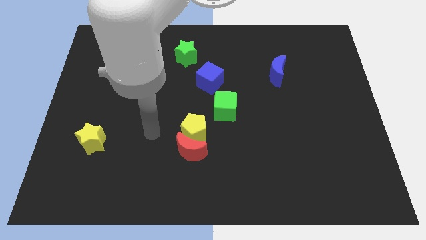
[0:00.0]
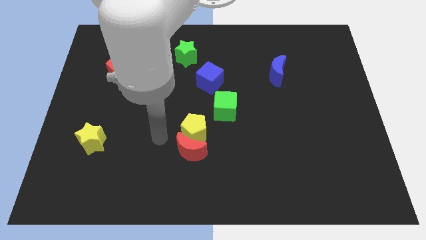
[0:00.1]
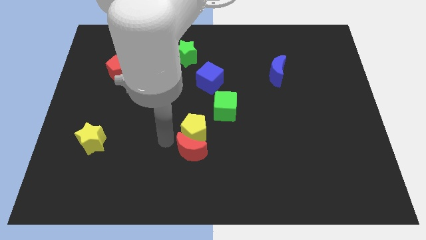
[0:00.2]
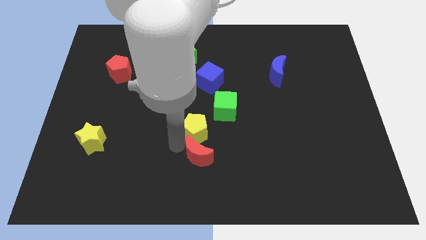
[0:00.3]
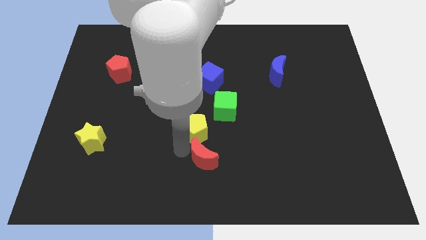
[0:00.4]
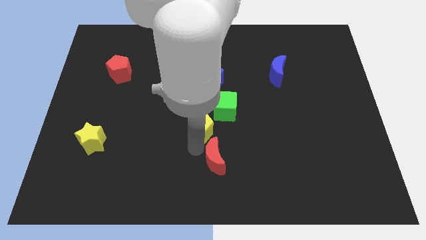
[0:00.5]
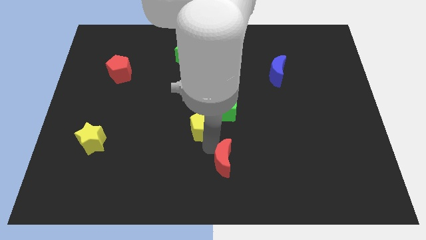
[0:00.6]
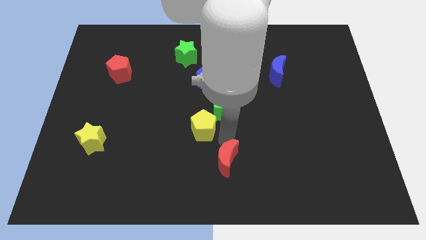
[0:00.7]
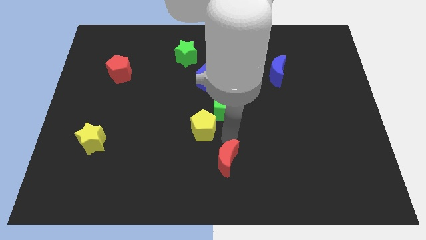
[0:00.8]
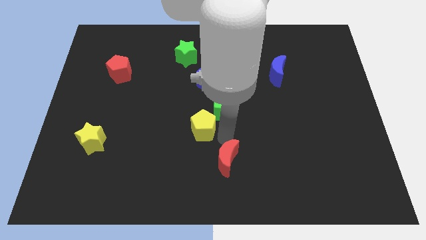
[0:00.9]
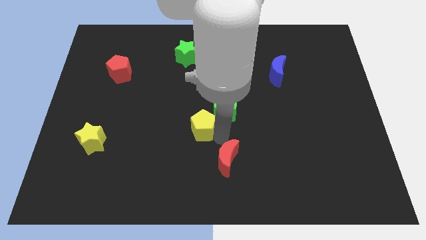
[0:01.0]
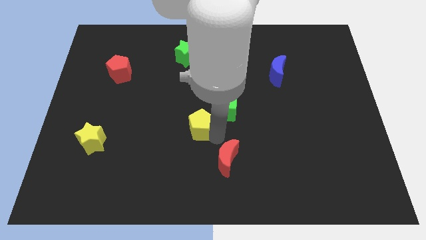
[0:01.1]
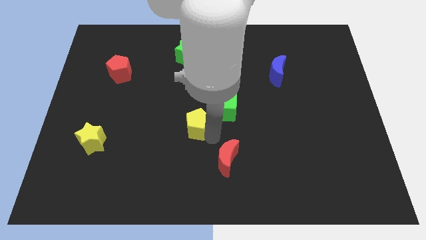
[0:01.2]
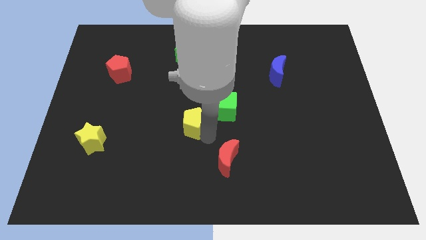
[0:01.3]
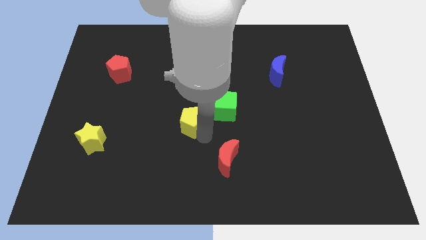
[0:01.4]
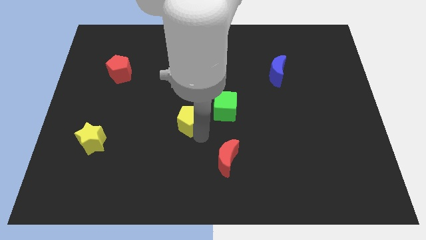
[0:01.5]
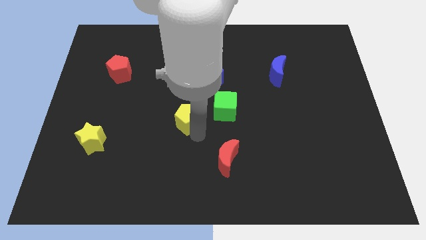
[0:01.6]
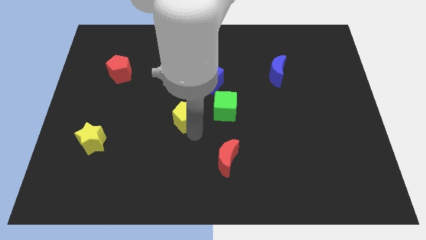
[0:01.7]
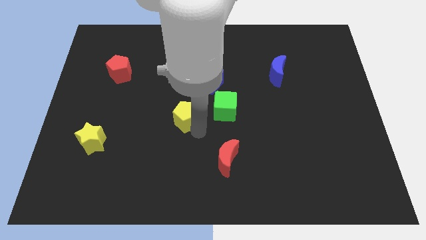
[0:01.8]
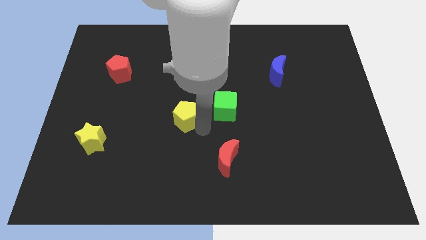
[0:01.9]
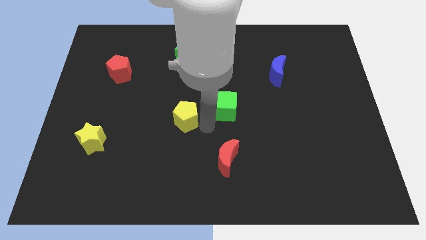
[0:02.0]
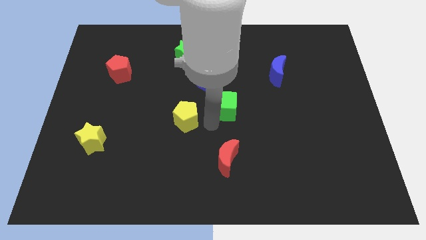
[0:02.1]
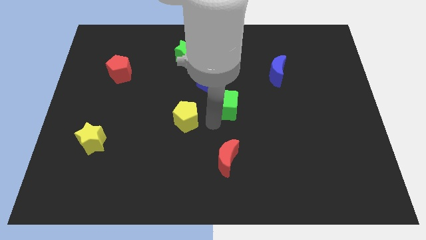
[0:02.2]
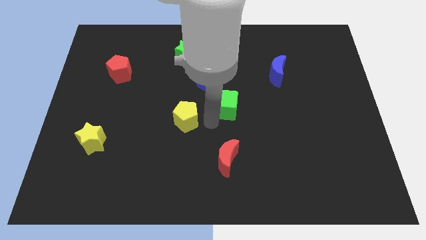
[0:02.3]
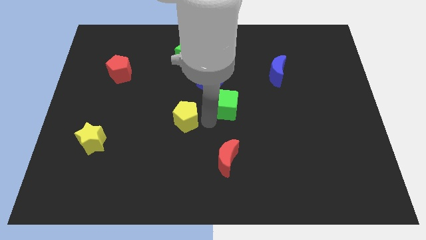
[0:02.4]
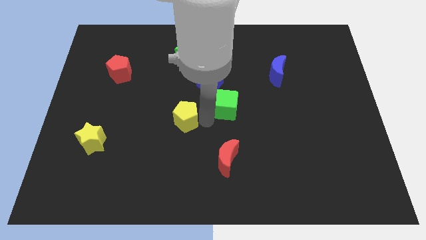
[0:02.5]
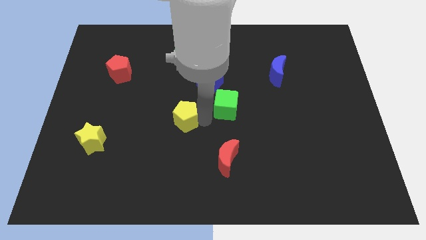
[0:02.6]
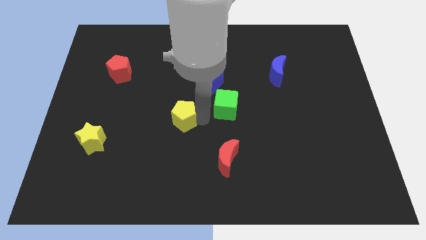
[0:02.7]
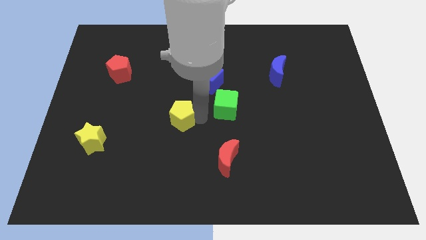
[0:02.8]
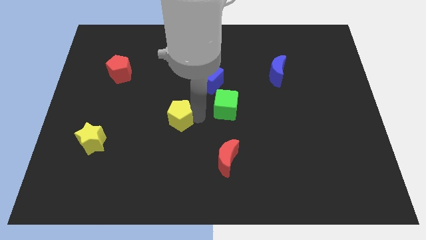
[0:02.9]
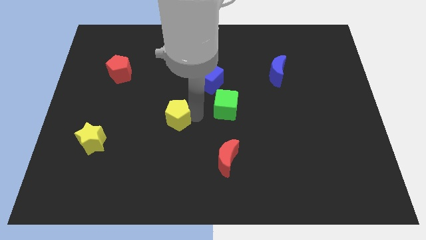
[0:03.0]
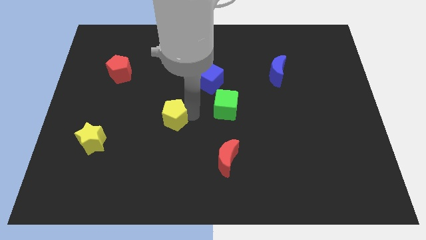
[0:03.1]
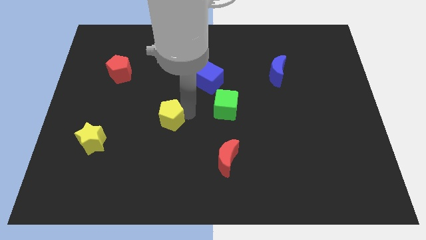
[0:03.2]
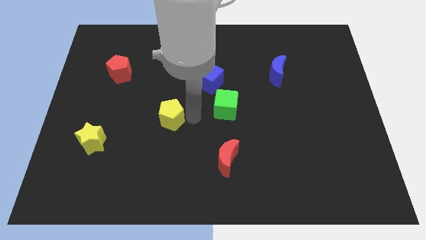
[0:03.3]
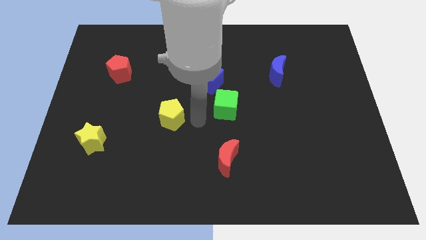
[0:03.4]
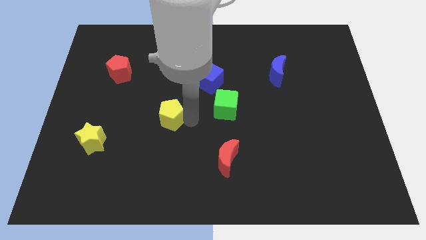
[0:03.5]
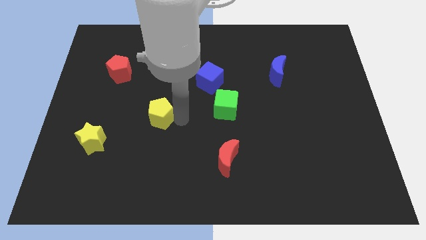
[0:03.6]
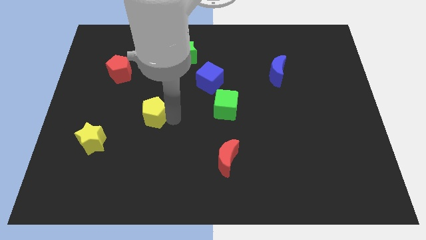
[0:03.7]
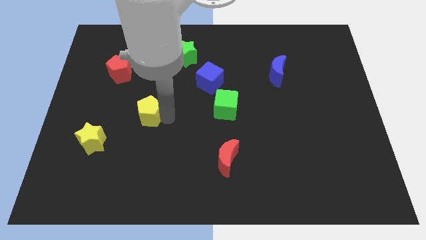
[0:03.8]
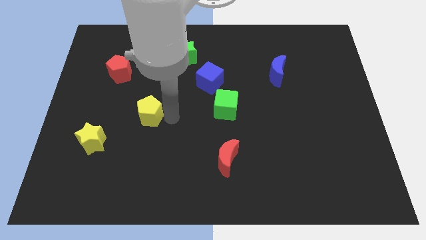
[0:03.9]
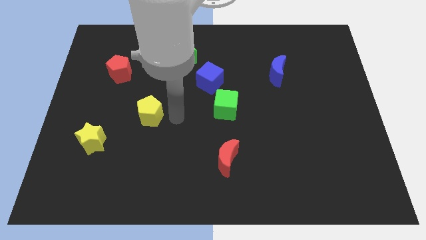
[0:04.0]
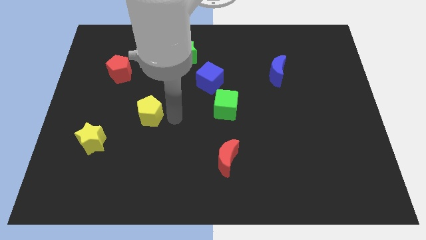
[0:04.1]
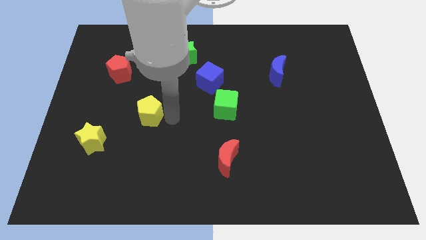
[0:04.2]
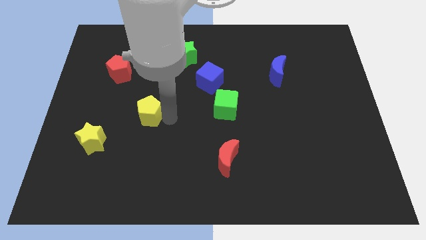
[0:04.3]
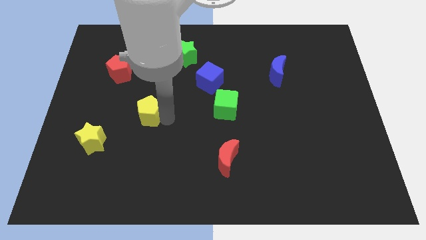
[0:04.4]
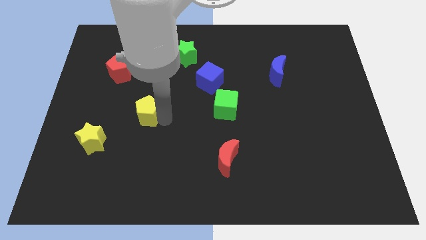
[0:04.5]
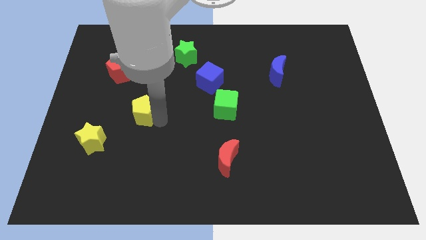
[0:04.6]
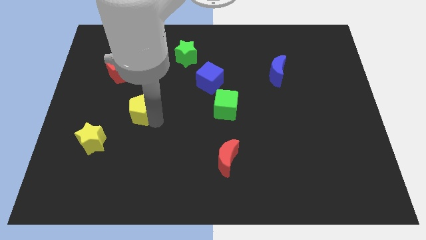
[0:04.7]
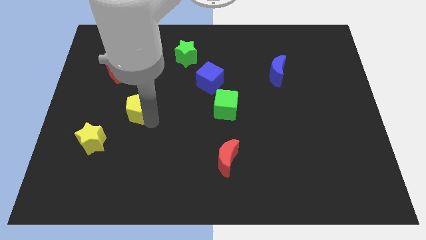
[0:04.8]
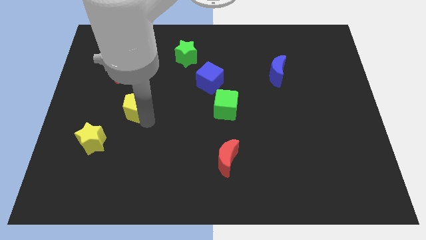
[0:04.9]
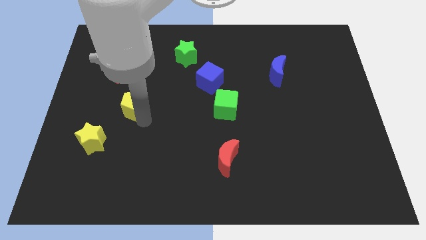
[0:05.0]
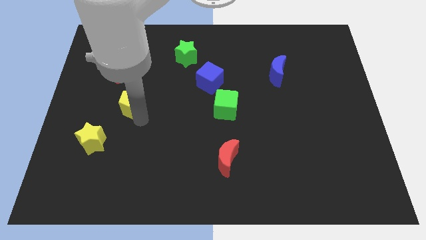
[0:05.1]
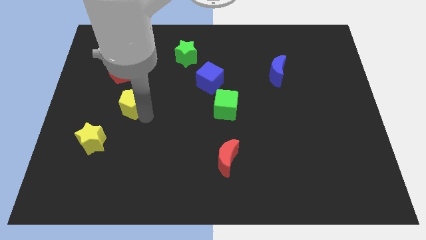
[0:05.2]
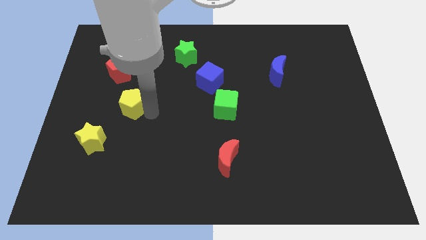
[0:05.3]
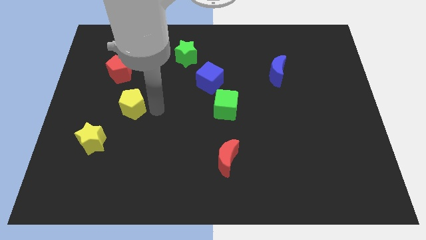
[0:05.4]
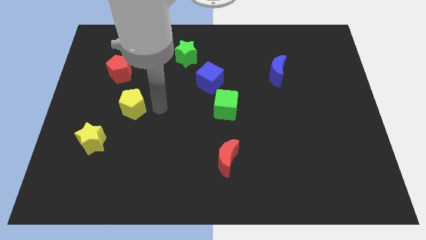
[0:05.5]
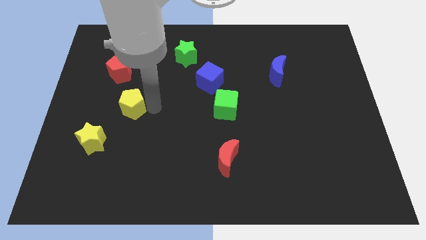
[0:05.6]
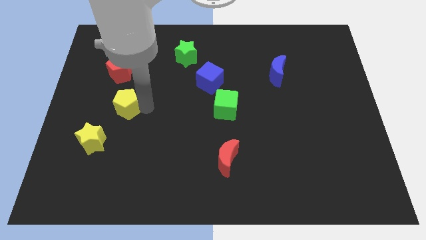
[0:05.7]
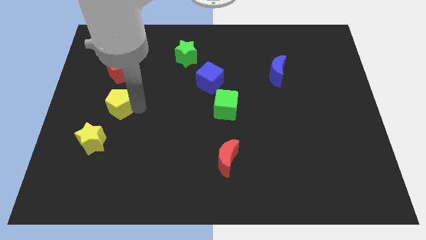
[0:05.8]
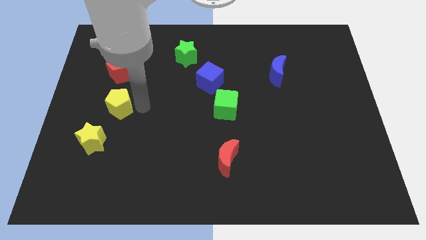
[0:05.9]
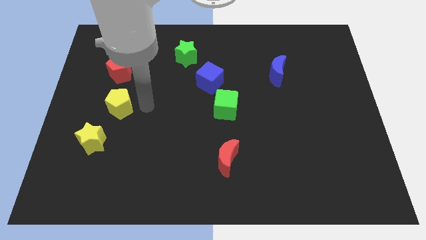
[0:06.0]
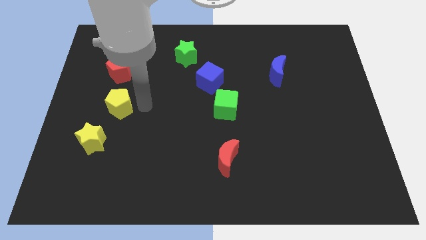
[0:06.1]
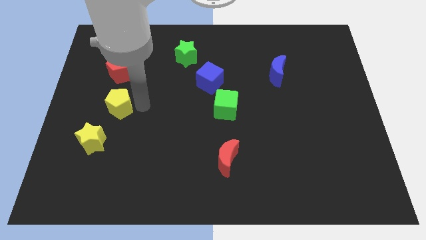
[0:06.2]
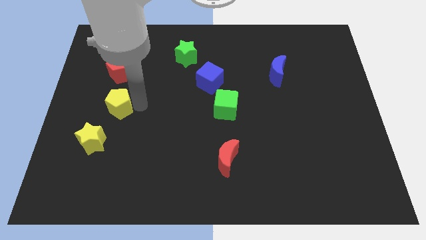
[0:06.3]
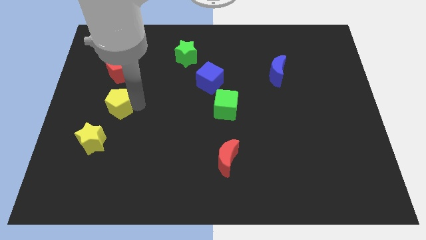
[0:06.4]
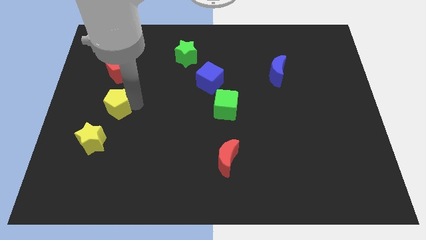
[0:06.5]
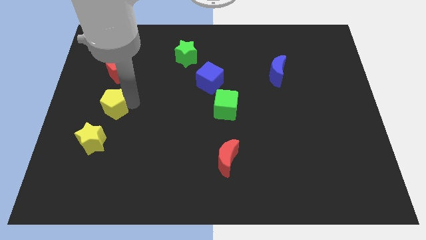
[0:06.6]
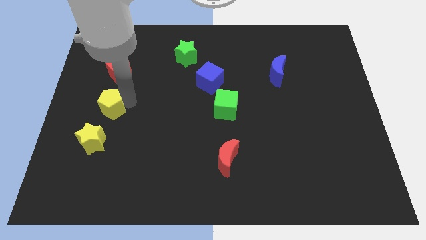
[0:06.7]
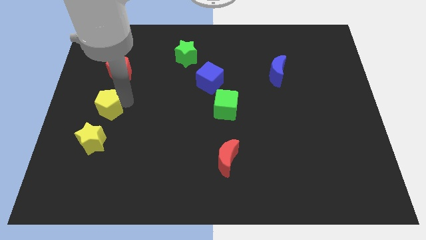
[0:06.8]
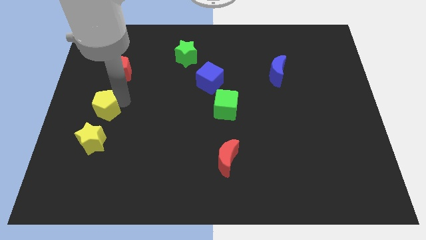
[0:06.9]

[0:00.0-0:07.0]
push the yellow pentagon to the center left
